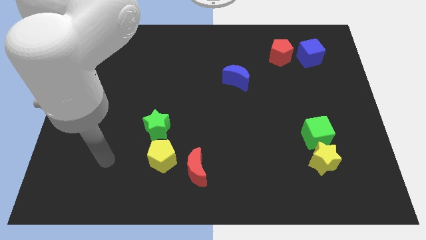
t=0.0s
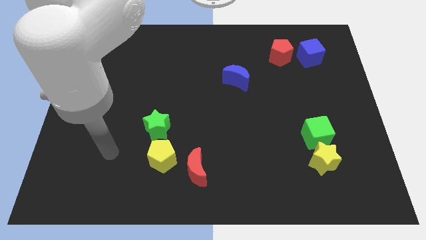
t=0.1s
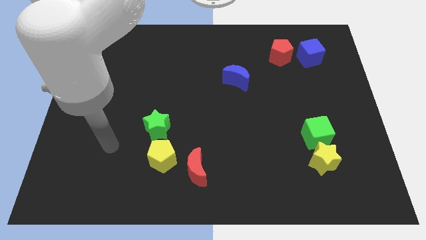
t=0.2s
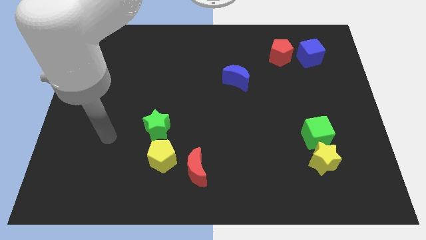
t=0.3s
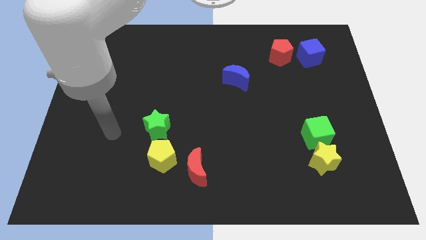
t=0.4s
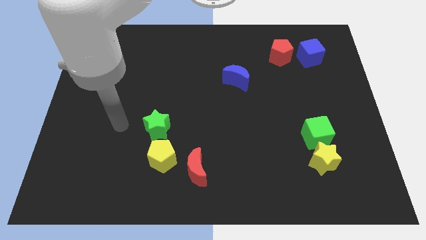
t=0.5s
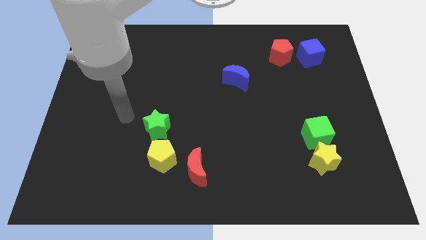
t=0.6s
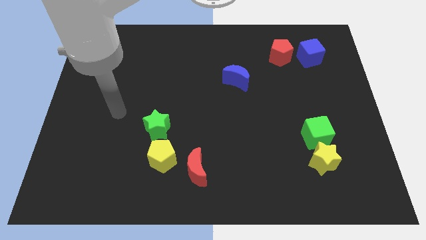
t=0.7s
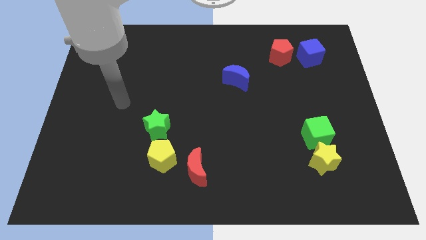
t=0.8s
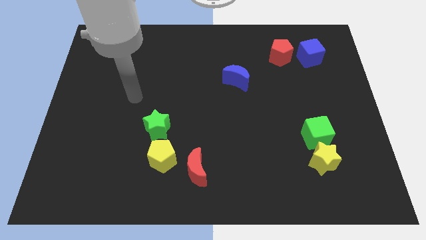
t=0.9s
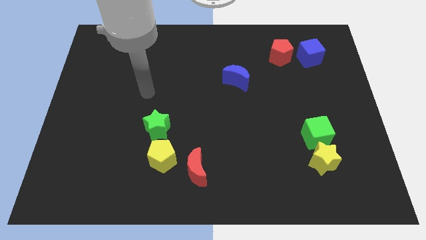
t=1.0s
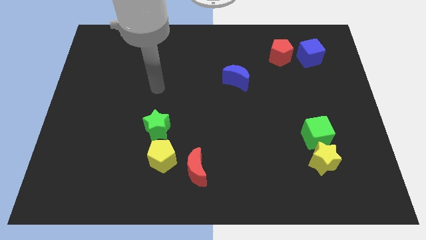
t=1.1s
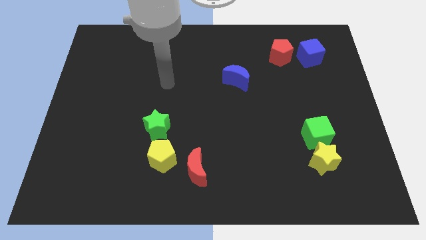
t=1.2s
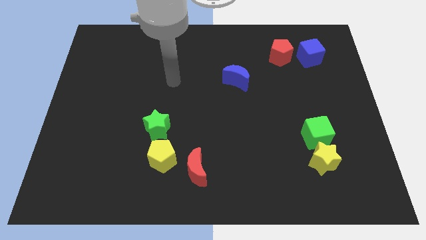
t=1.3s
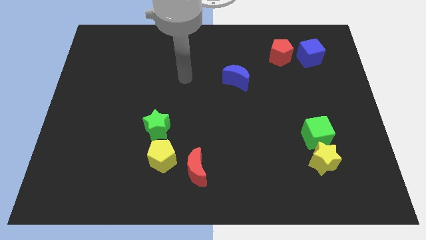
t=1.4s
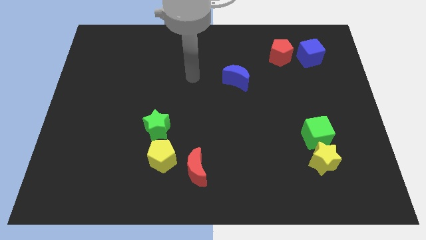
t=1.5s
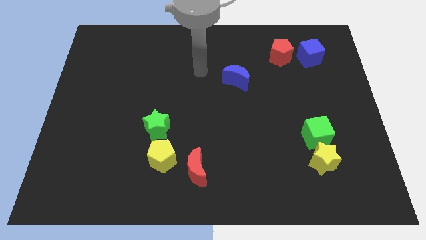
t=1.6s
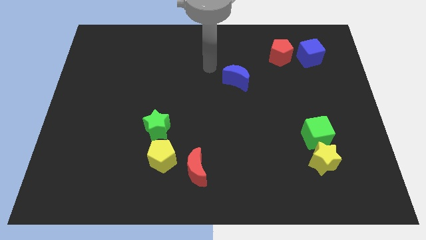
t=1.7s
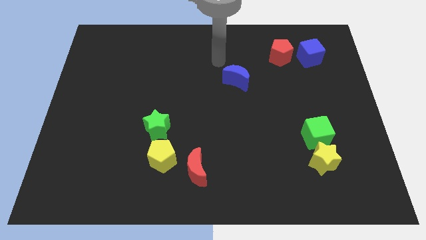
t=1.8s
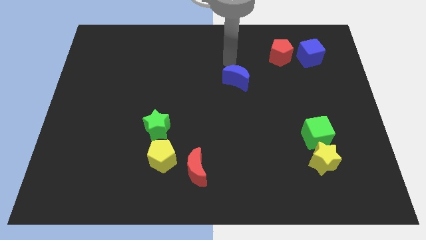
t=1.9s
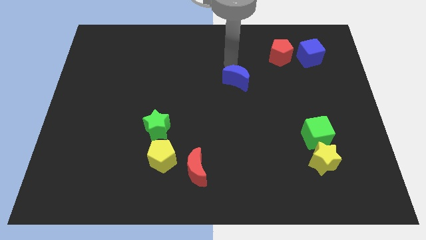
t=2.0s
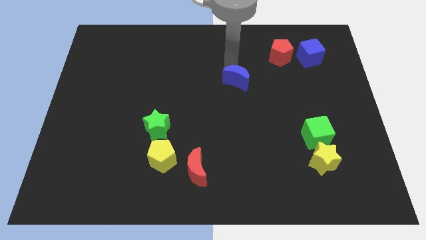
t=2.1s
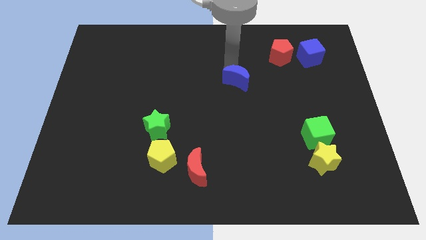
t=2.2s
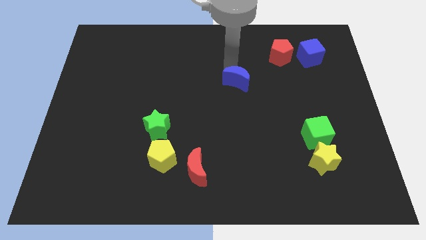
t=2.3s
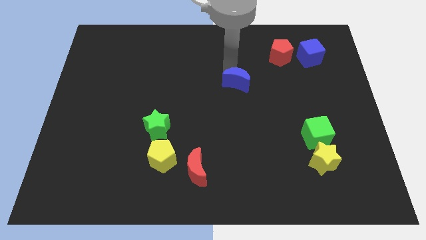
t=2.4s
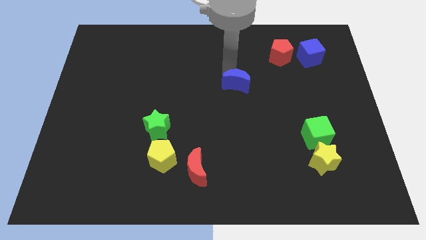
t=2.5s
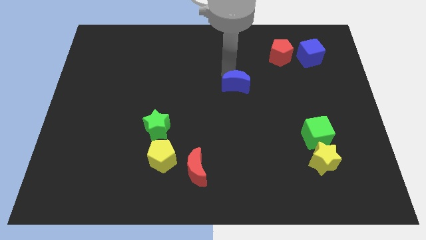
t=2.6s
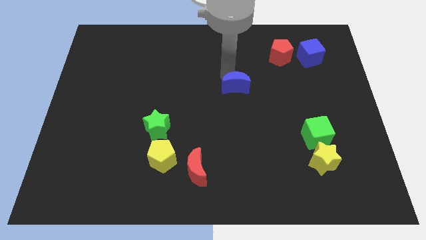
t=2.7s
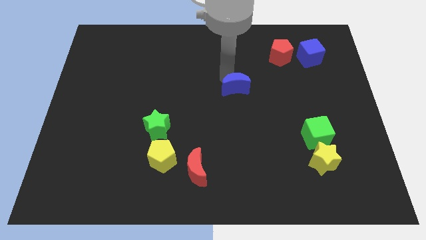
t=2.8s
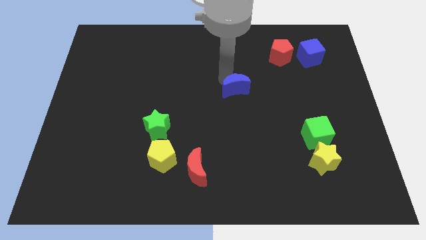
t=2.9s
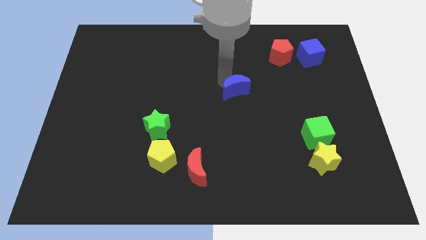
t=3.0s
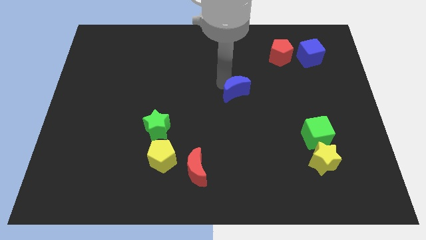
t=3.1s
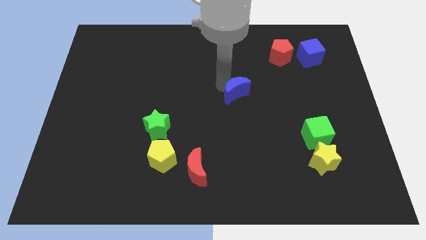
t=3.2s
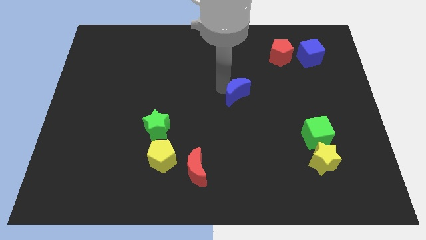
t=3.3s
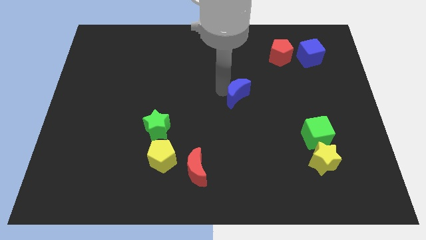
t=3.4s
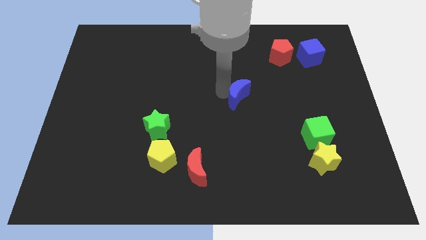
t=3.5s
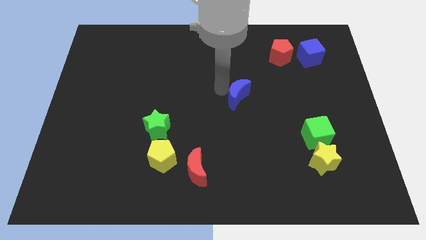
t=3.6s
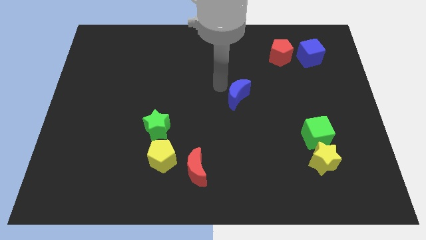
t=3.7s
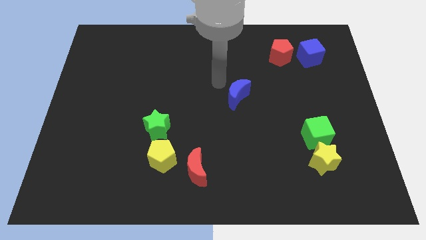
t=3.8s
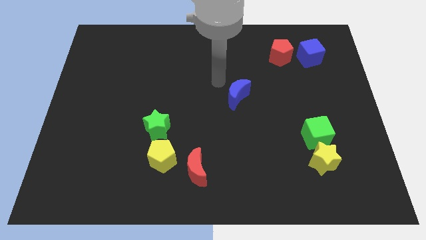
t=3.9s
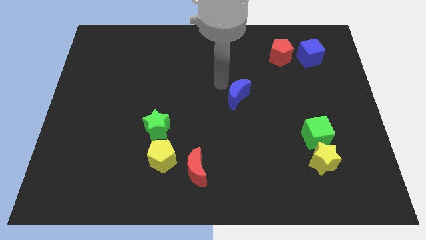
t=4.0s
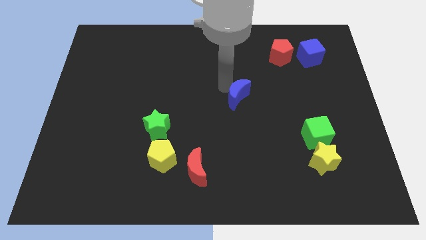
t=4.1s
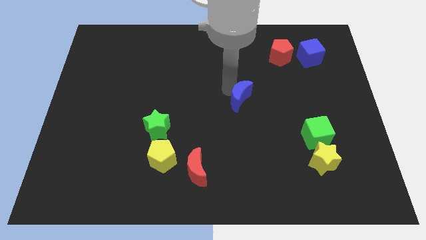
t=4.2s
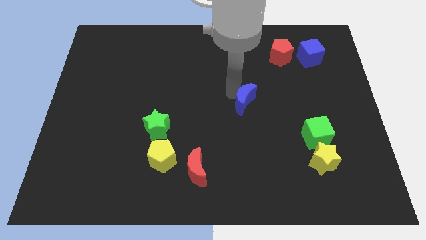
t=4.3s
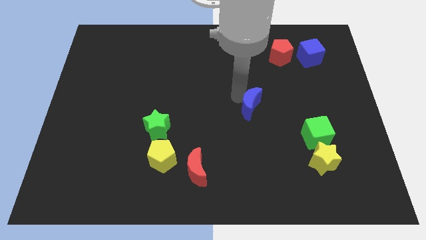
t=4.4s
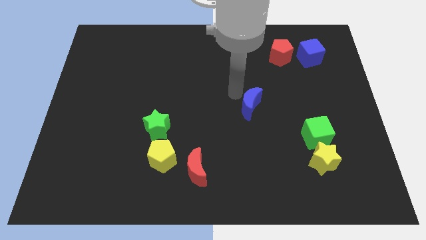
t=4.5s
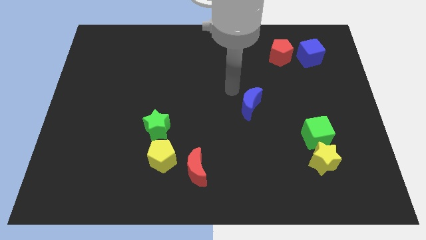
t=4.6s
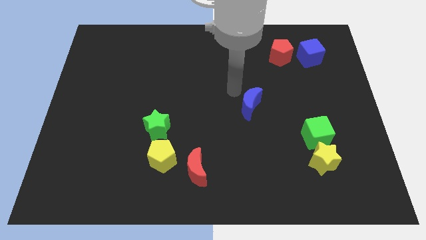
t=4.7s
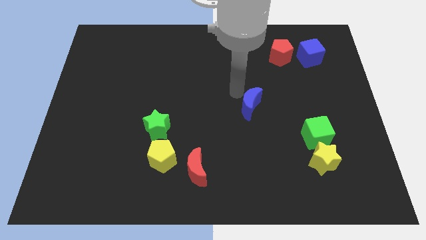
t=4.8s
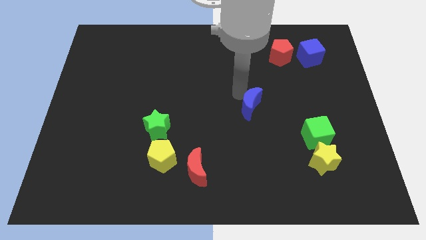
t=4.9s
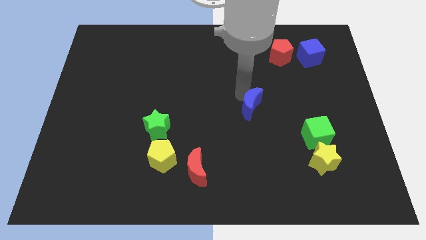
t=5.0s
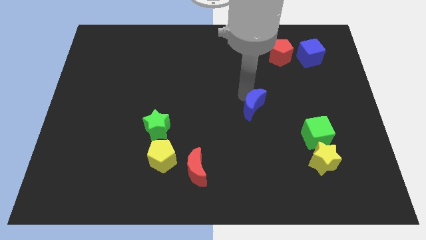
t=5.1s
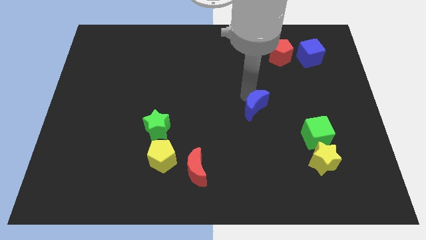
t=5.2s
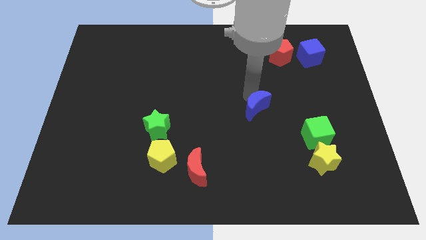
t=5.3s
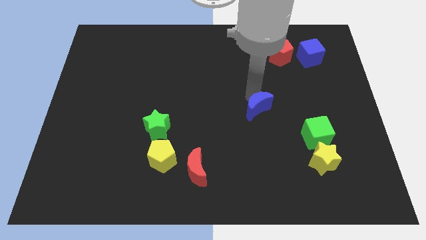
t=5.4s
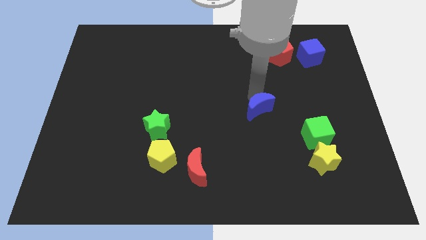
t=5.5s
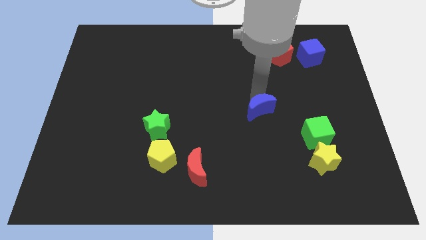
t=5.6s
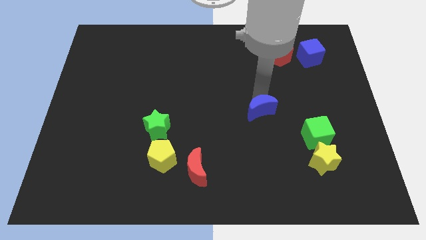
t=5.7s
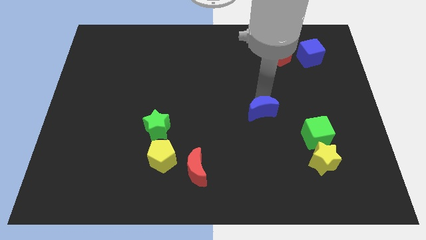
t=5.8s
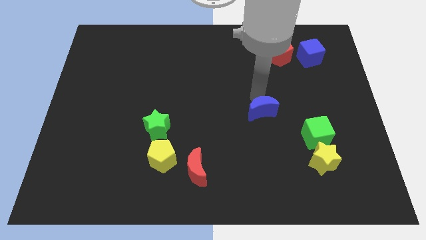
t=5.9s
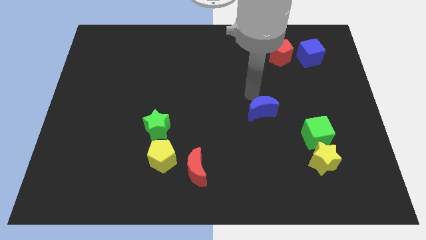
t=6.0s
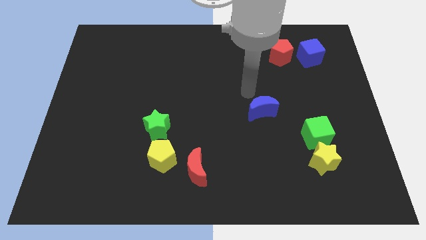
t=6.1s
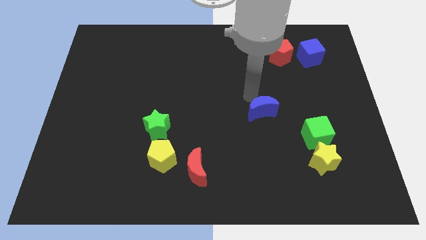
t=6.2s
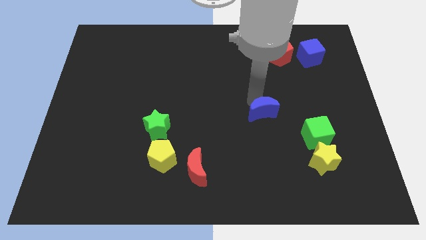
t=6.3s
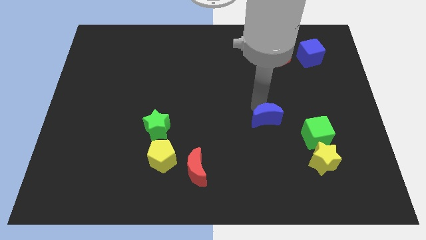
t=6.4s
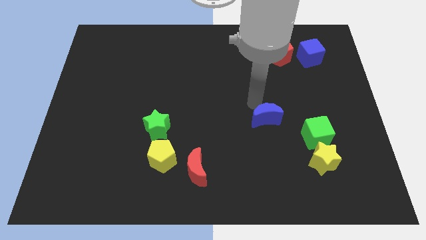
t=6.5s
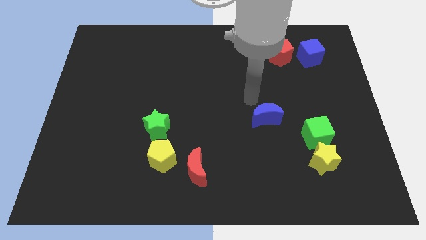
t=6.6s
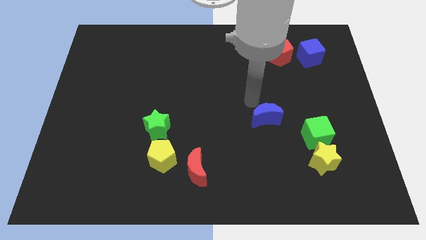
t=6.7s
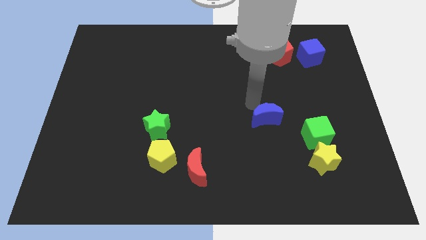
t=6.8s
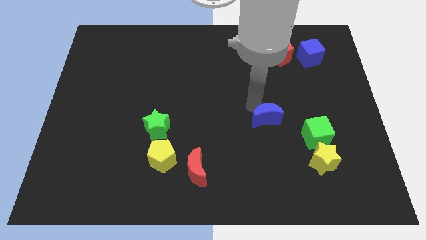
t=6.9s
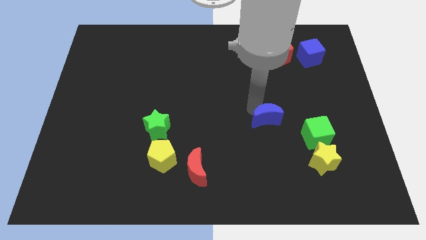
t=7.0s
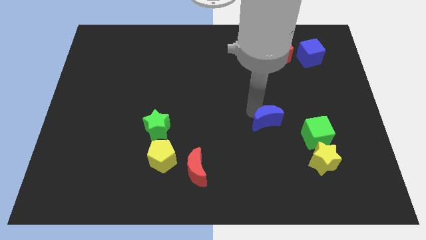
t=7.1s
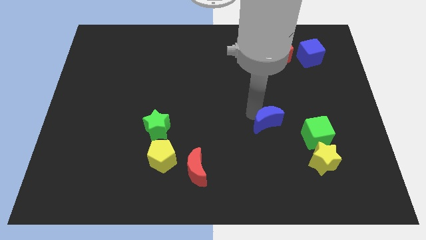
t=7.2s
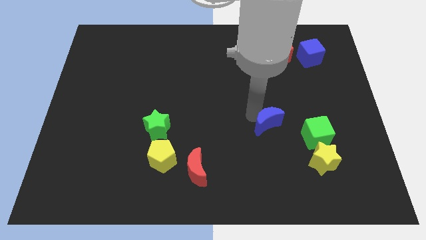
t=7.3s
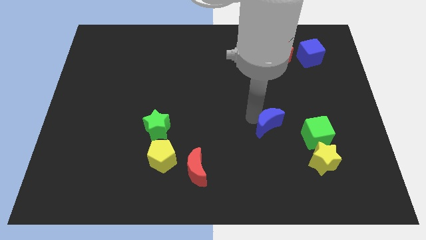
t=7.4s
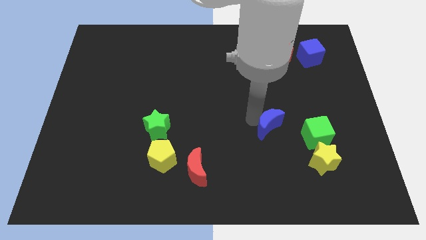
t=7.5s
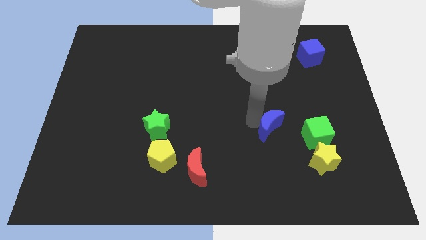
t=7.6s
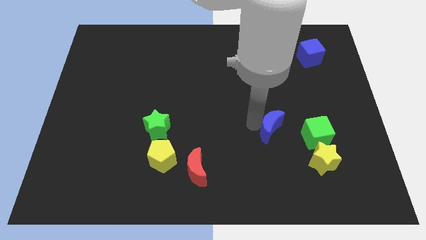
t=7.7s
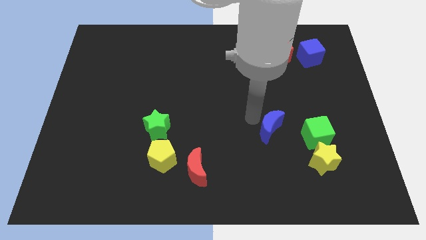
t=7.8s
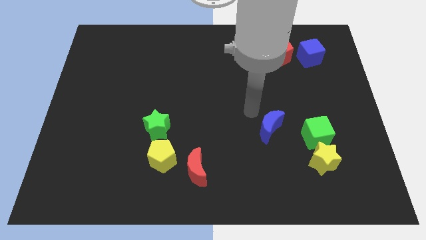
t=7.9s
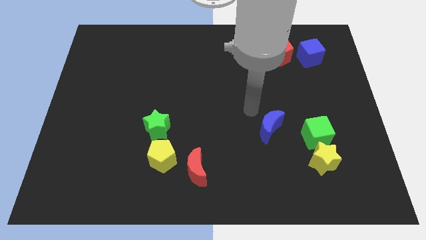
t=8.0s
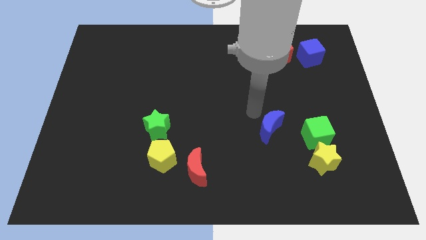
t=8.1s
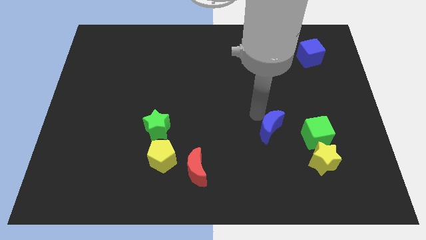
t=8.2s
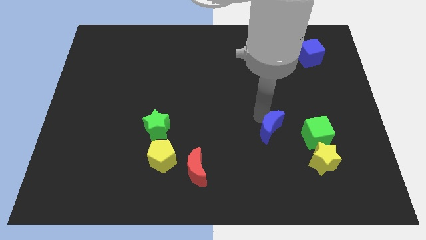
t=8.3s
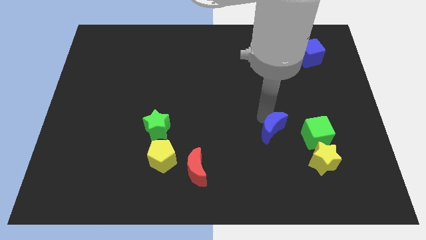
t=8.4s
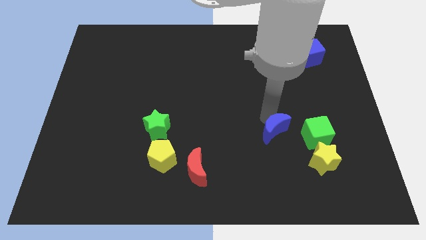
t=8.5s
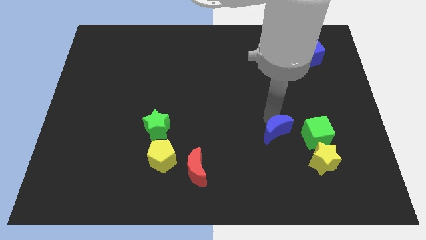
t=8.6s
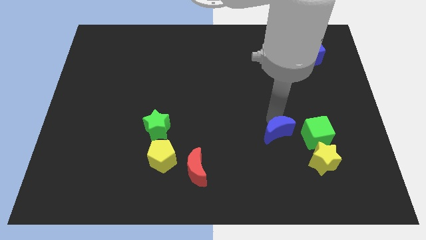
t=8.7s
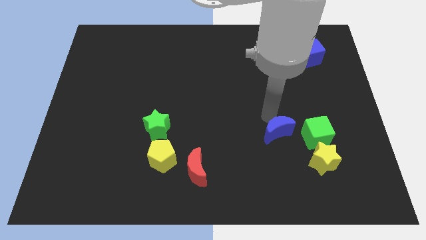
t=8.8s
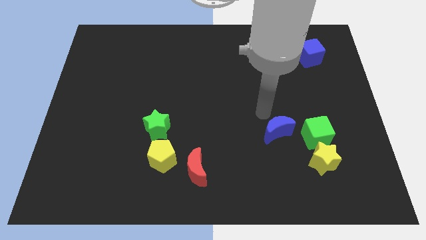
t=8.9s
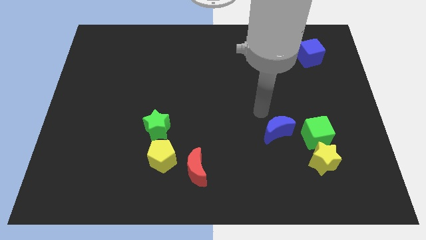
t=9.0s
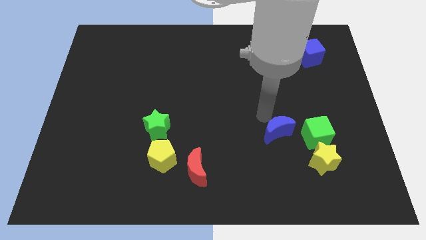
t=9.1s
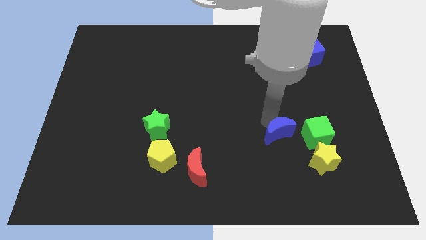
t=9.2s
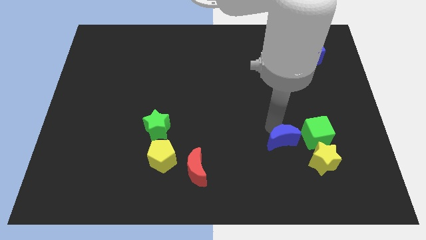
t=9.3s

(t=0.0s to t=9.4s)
move the blue moon to the bottom left side of the green cube
